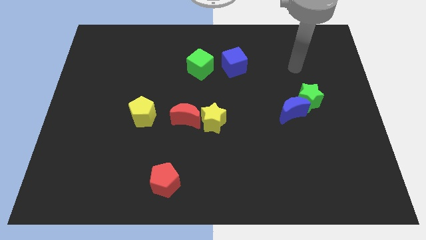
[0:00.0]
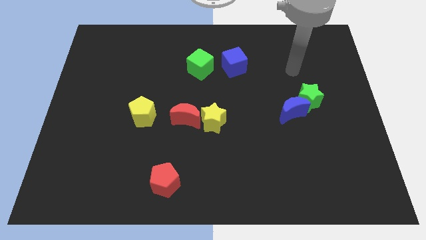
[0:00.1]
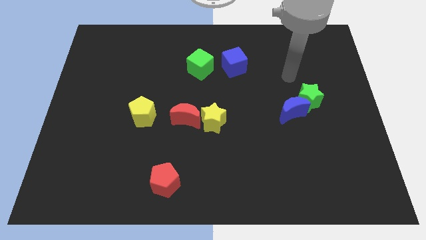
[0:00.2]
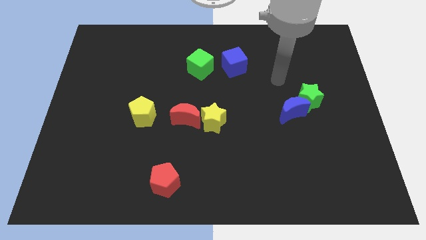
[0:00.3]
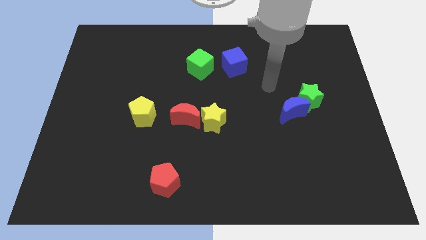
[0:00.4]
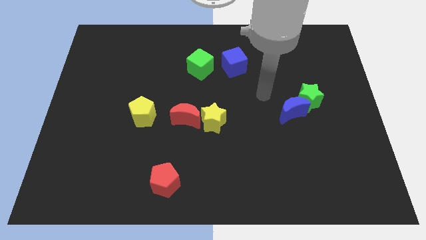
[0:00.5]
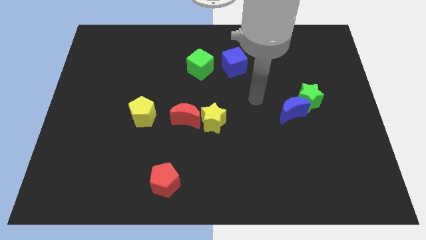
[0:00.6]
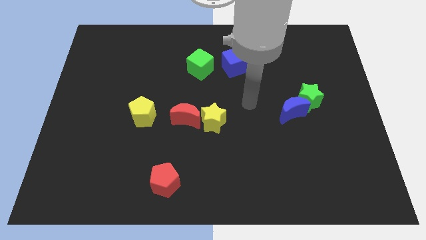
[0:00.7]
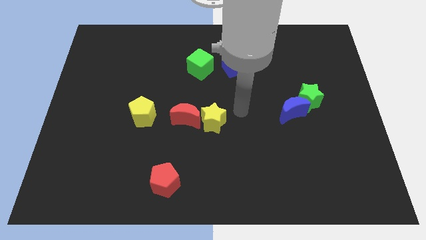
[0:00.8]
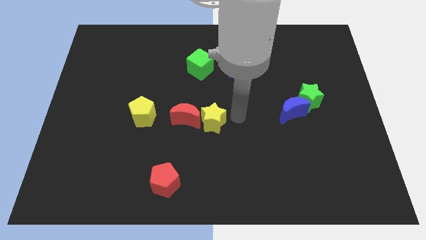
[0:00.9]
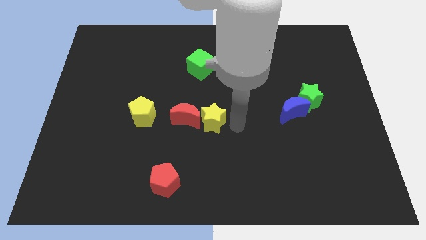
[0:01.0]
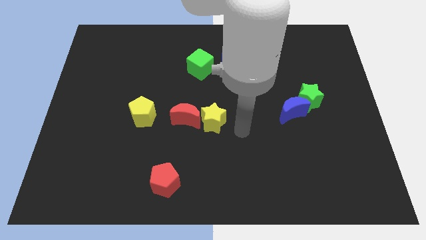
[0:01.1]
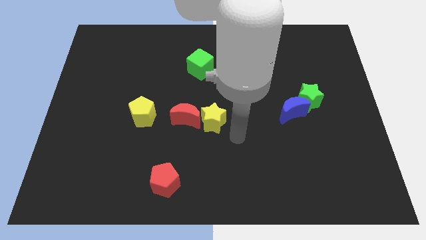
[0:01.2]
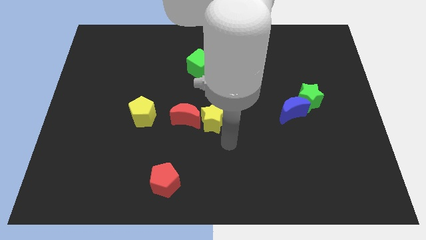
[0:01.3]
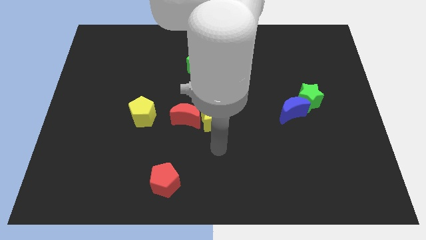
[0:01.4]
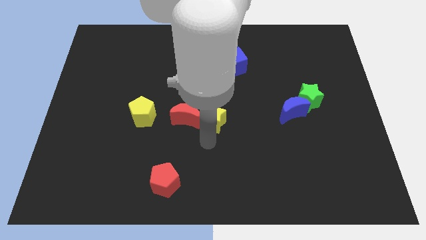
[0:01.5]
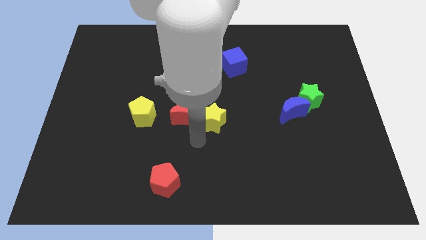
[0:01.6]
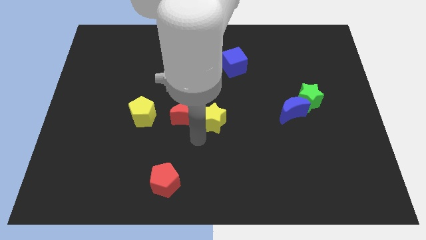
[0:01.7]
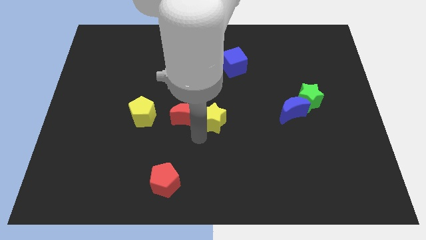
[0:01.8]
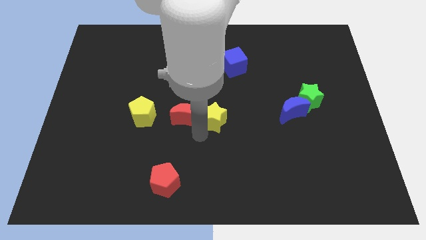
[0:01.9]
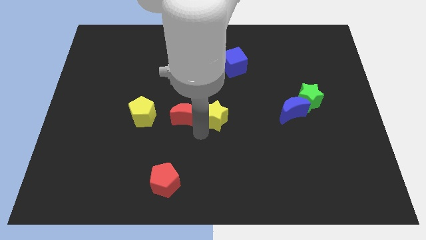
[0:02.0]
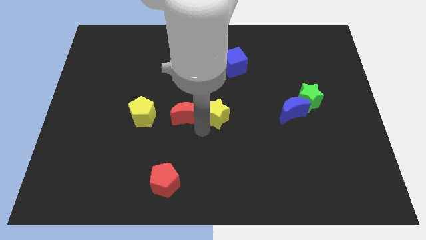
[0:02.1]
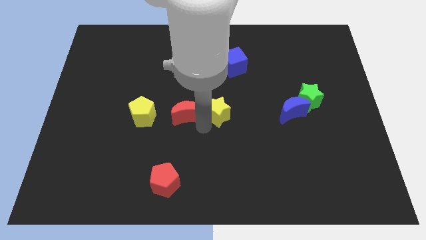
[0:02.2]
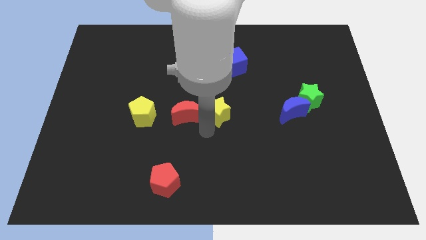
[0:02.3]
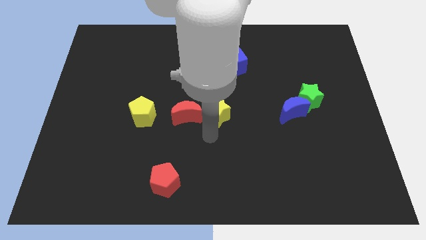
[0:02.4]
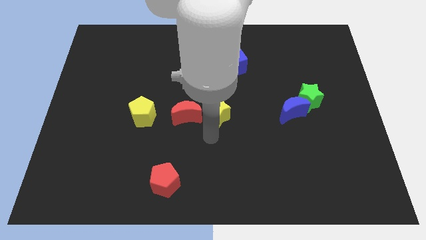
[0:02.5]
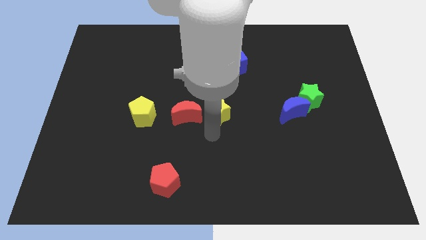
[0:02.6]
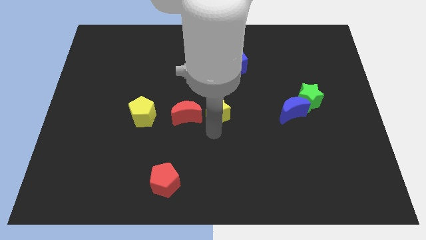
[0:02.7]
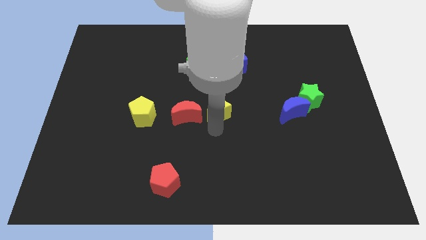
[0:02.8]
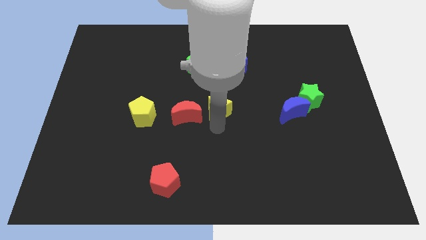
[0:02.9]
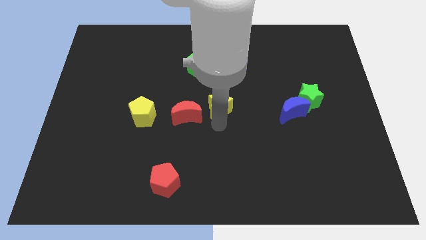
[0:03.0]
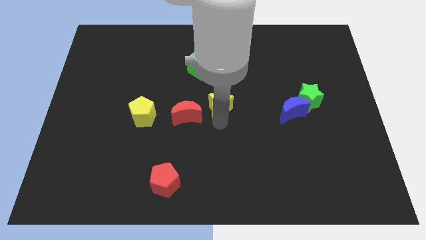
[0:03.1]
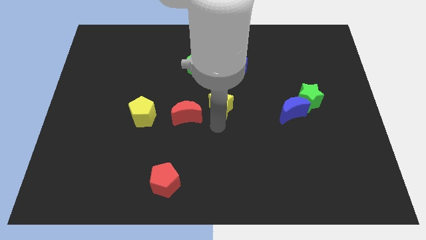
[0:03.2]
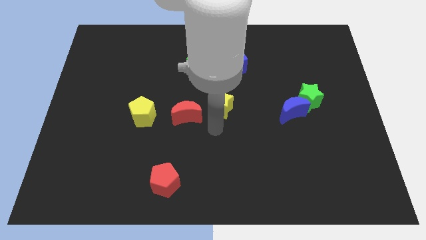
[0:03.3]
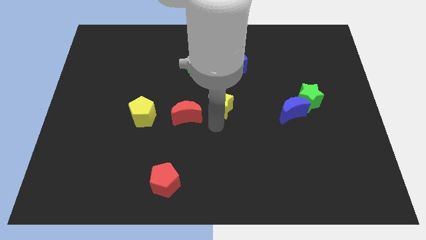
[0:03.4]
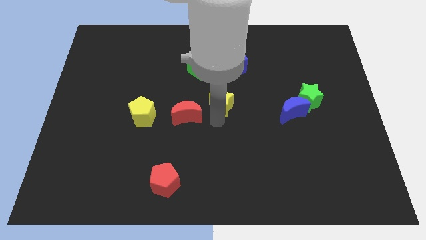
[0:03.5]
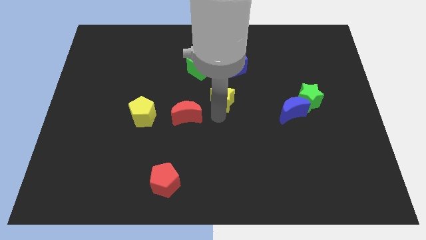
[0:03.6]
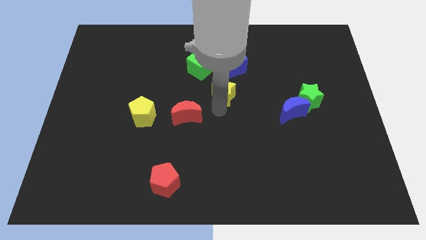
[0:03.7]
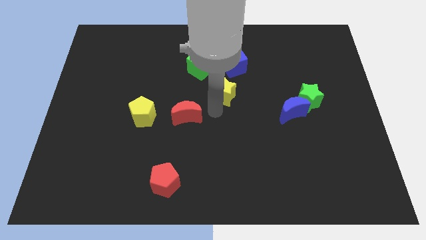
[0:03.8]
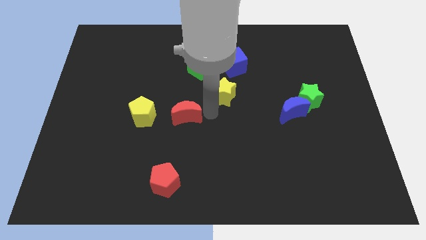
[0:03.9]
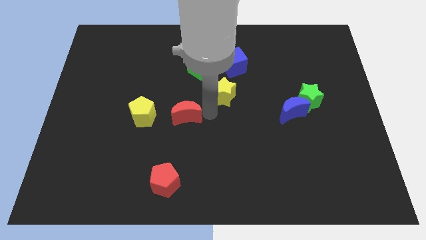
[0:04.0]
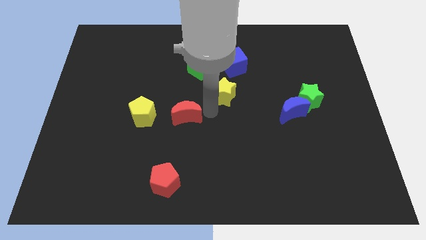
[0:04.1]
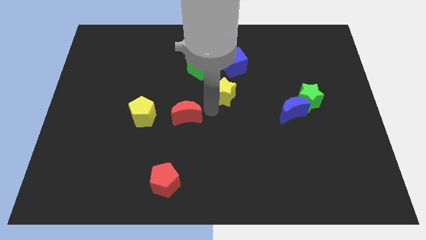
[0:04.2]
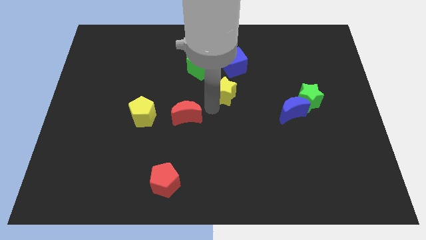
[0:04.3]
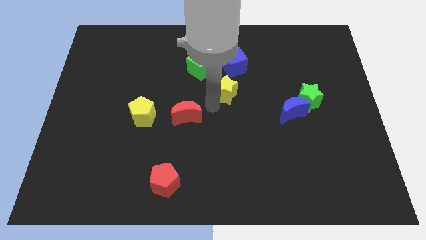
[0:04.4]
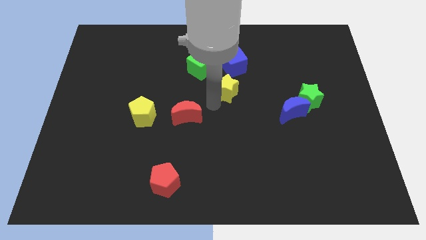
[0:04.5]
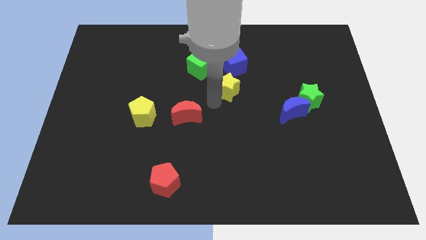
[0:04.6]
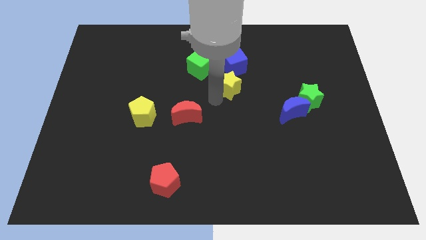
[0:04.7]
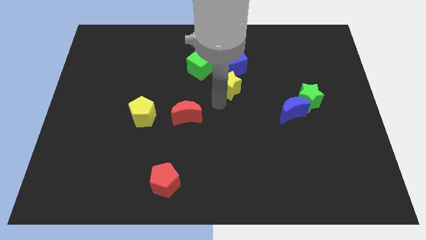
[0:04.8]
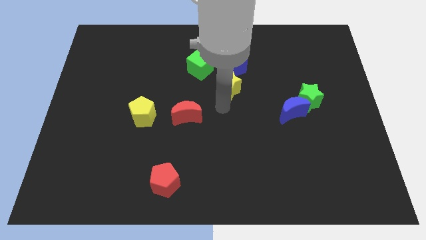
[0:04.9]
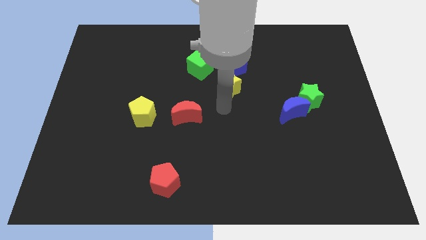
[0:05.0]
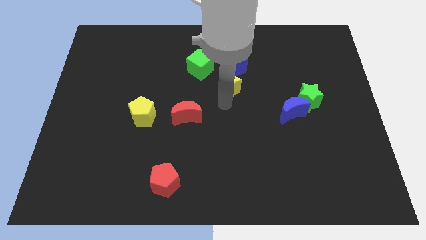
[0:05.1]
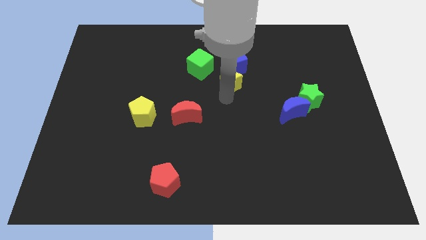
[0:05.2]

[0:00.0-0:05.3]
push the yellow star next to the blue cube

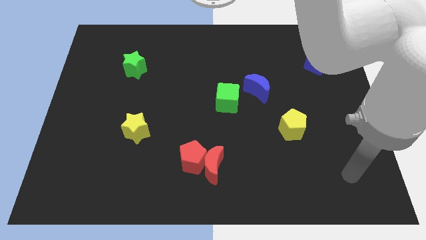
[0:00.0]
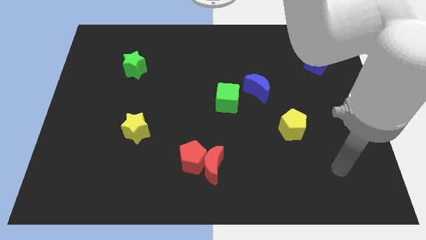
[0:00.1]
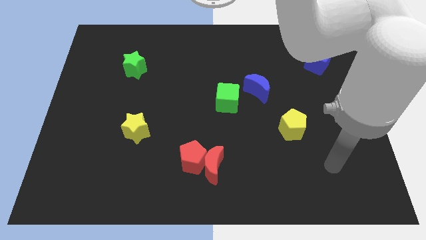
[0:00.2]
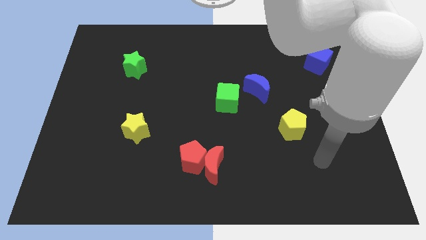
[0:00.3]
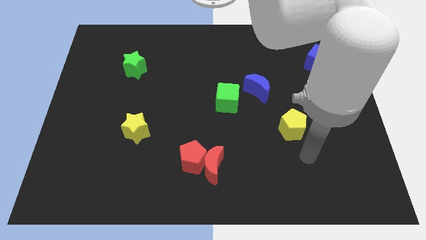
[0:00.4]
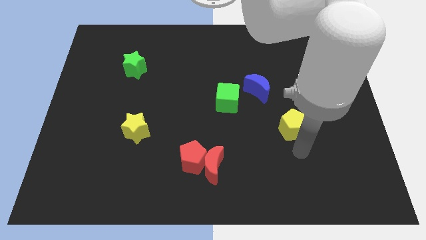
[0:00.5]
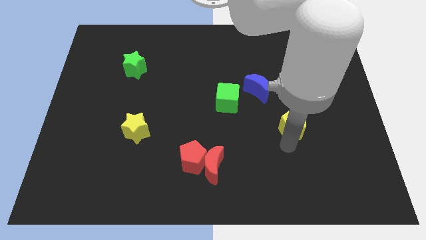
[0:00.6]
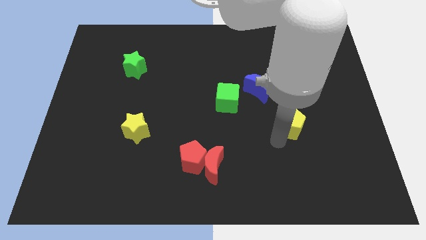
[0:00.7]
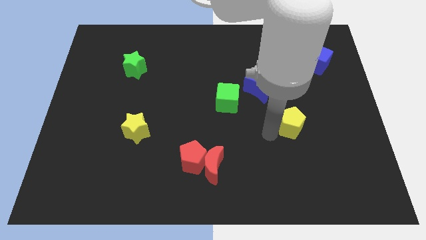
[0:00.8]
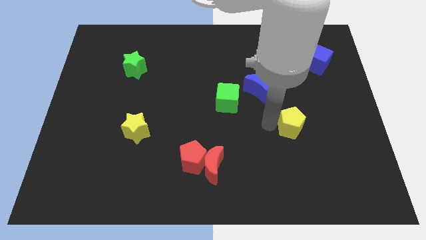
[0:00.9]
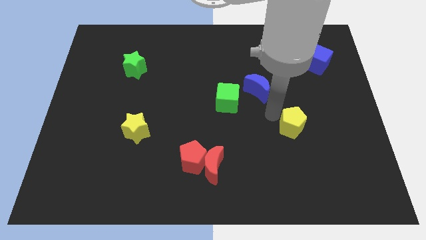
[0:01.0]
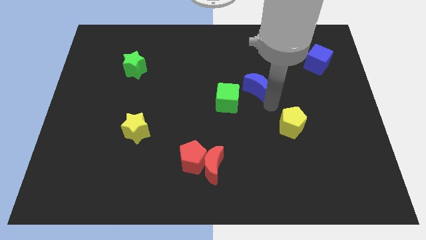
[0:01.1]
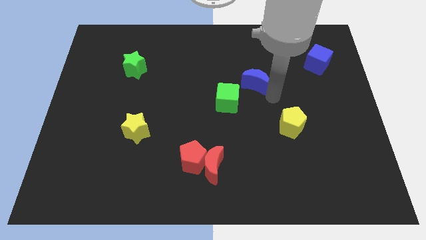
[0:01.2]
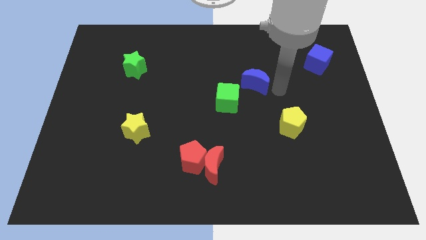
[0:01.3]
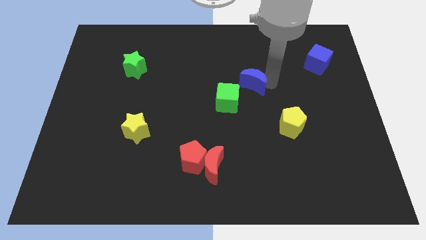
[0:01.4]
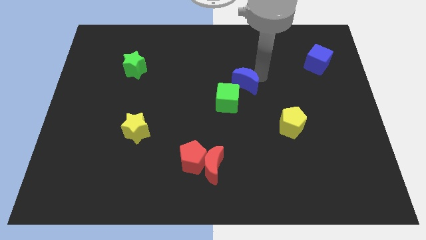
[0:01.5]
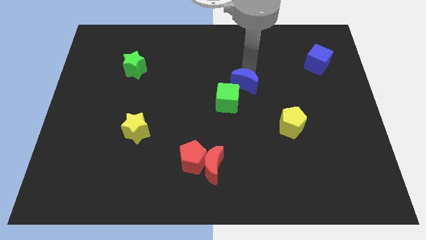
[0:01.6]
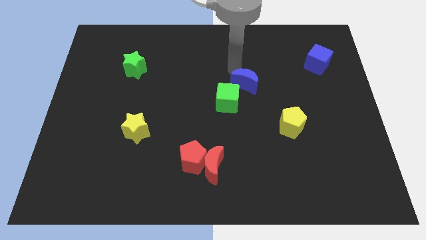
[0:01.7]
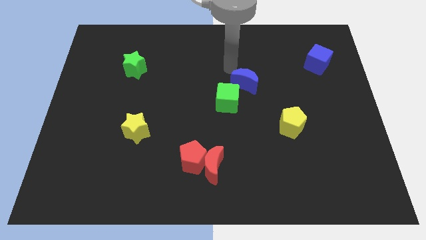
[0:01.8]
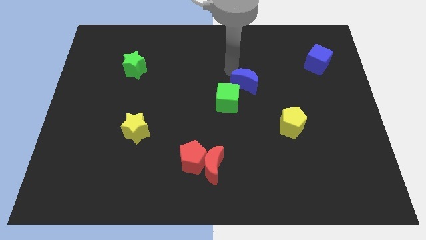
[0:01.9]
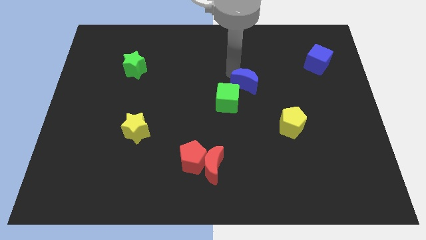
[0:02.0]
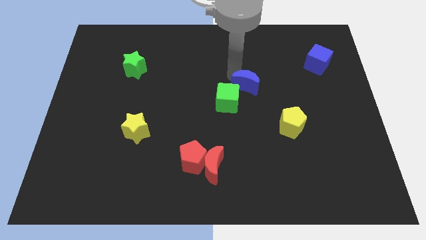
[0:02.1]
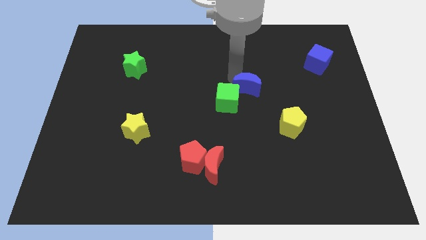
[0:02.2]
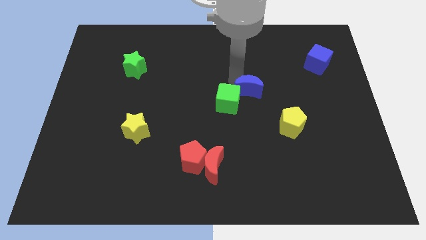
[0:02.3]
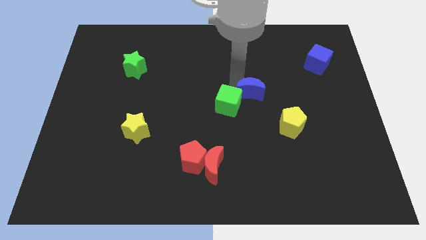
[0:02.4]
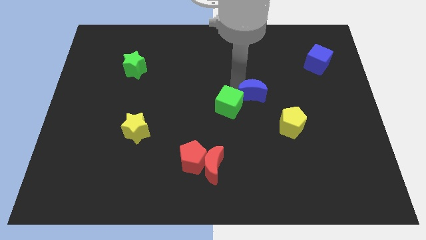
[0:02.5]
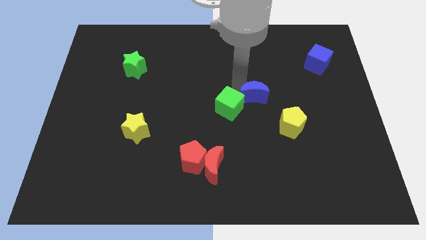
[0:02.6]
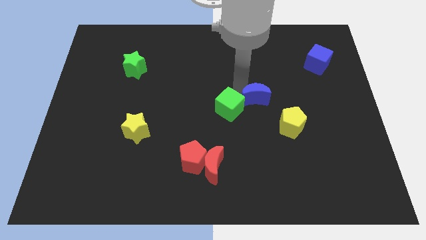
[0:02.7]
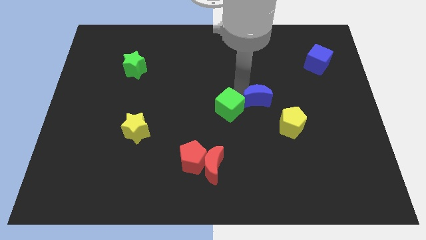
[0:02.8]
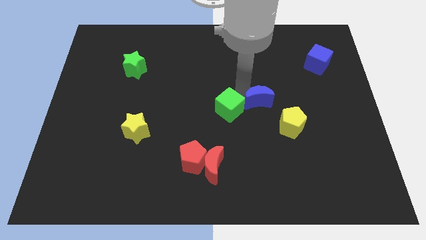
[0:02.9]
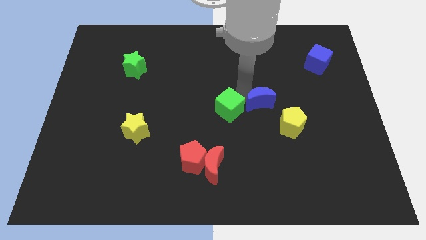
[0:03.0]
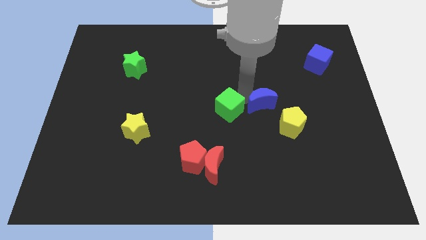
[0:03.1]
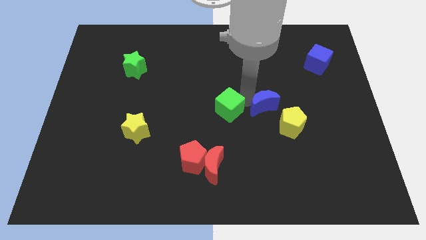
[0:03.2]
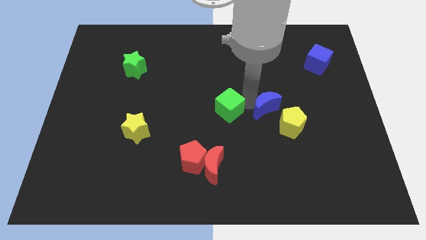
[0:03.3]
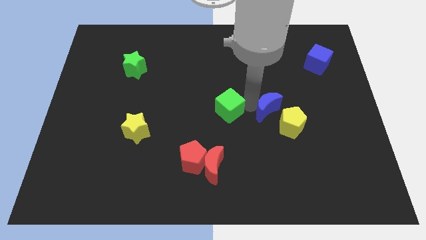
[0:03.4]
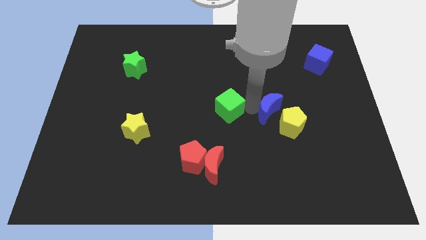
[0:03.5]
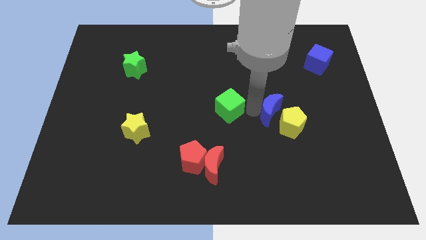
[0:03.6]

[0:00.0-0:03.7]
put the blue moon close to the yellow pentagon
